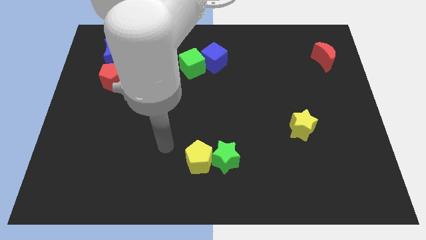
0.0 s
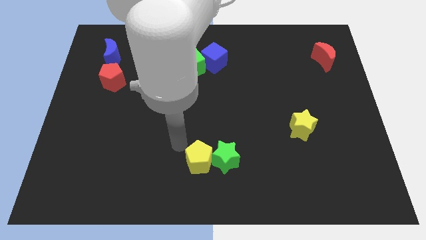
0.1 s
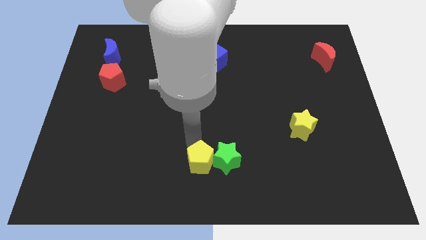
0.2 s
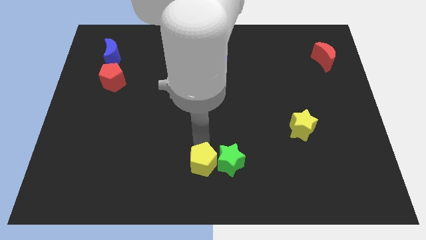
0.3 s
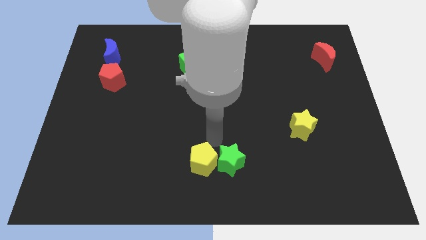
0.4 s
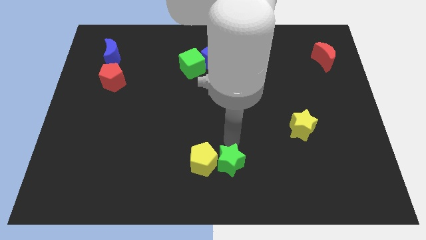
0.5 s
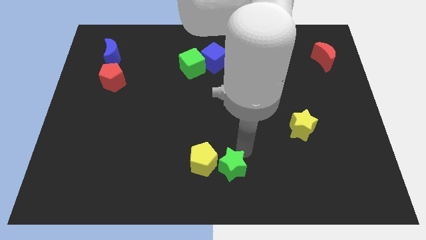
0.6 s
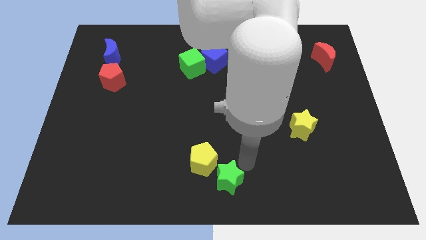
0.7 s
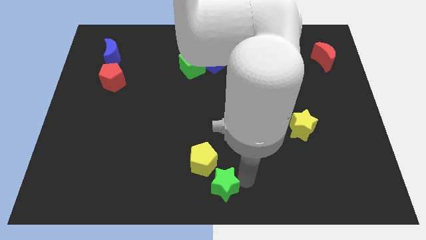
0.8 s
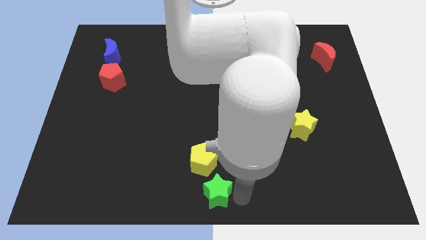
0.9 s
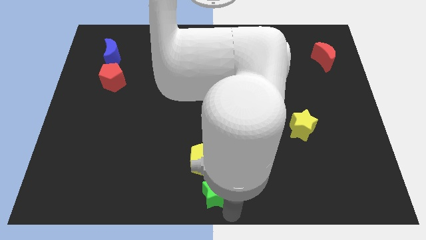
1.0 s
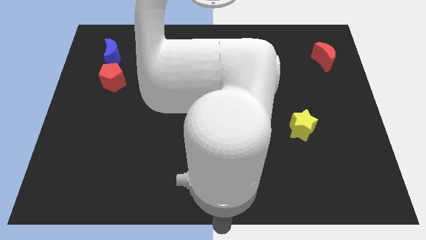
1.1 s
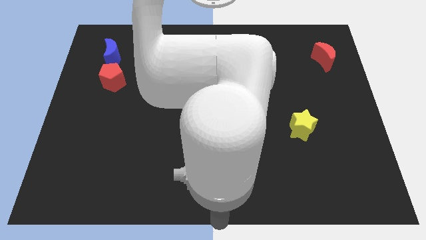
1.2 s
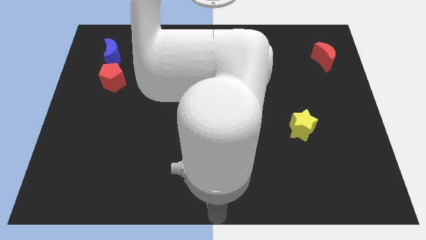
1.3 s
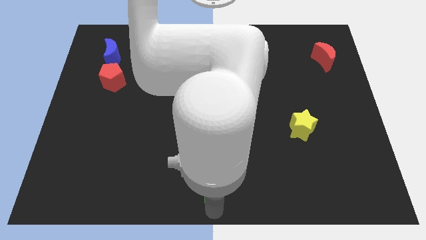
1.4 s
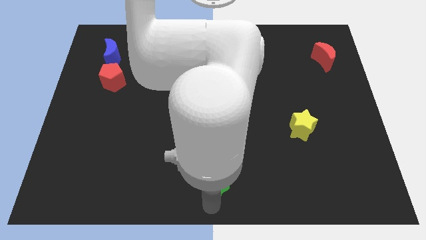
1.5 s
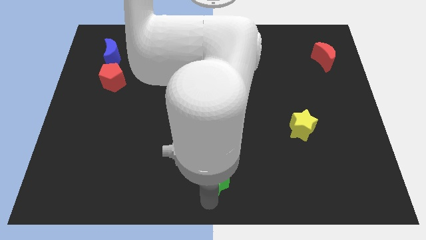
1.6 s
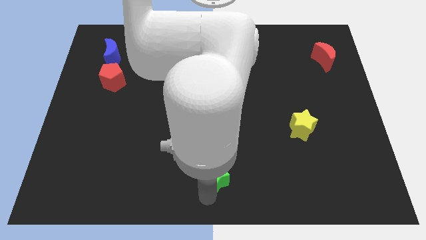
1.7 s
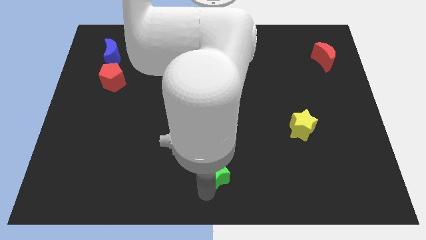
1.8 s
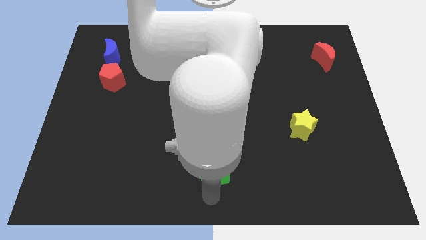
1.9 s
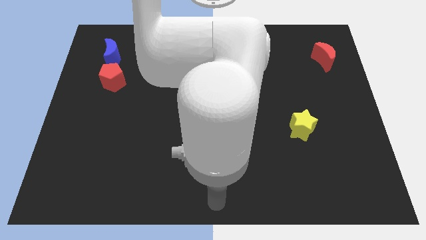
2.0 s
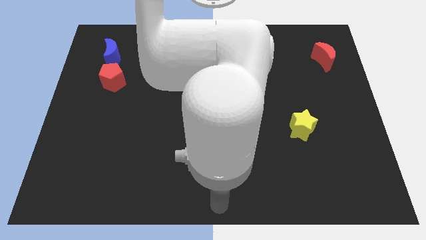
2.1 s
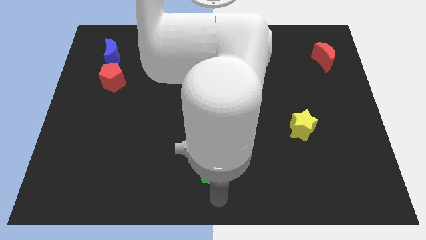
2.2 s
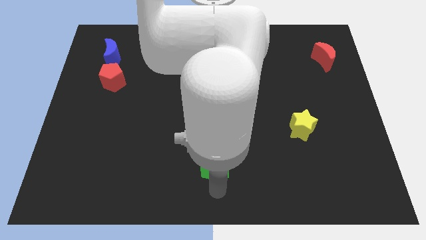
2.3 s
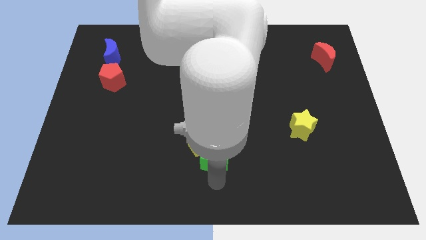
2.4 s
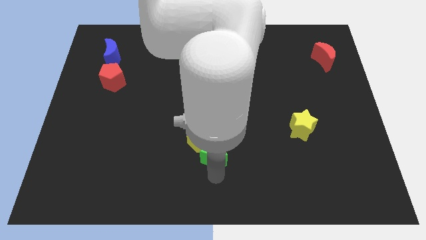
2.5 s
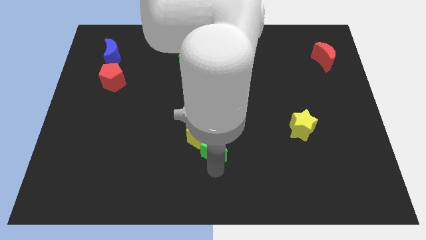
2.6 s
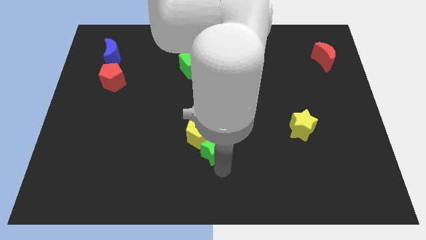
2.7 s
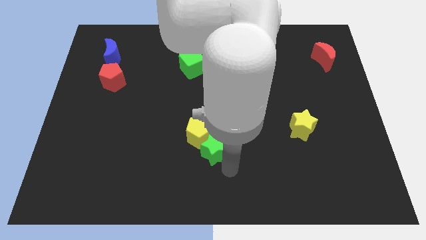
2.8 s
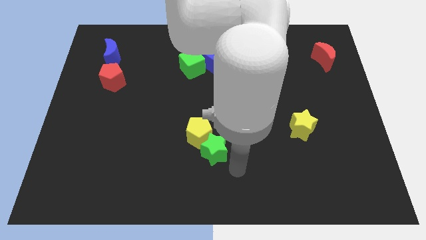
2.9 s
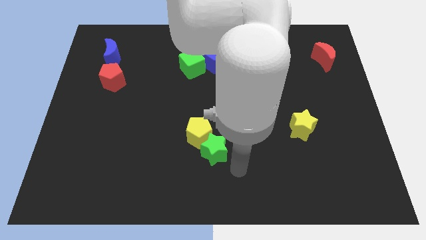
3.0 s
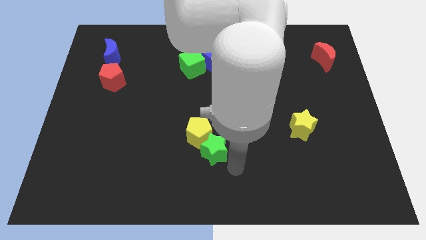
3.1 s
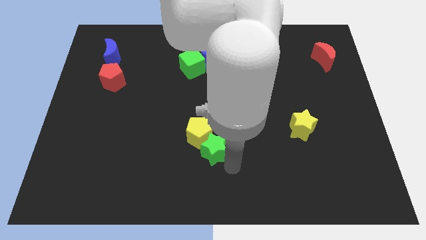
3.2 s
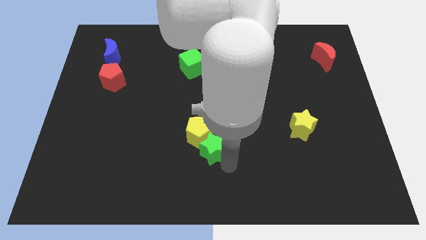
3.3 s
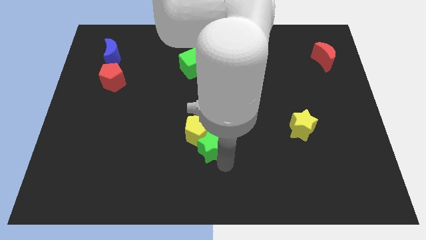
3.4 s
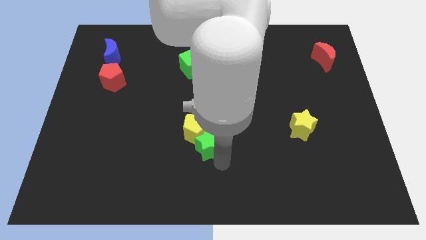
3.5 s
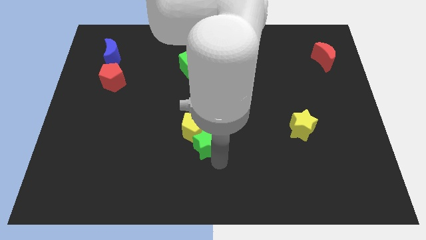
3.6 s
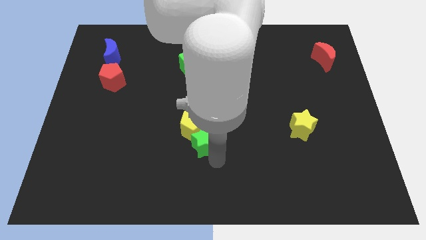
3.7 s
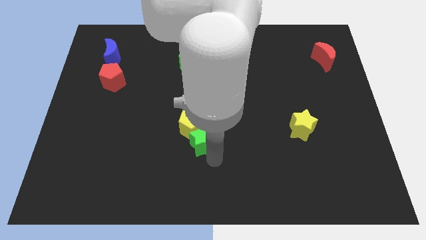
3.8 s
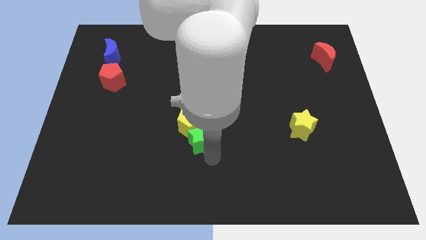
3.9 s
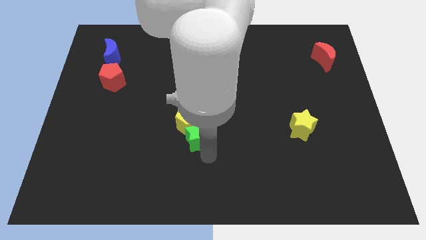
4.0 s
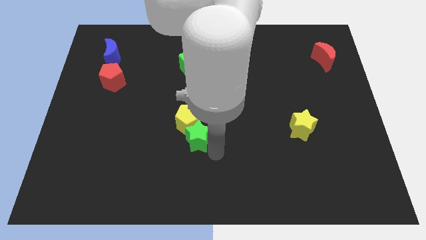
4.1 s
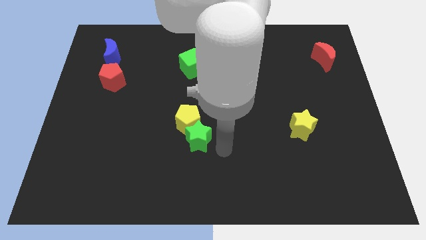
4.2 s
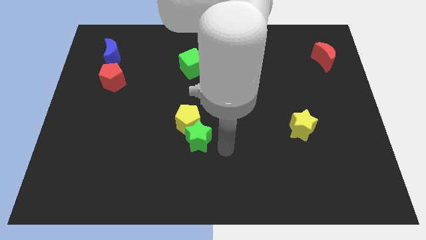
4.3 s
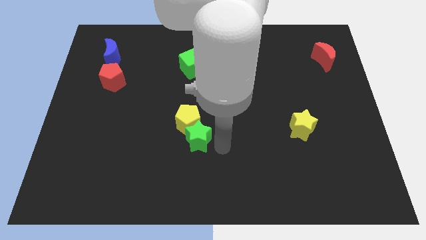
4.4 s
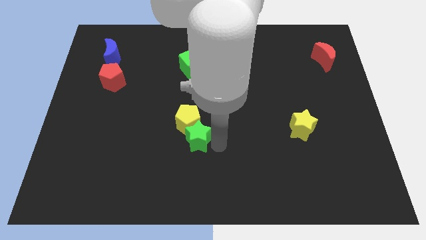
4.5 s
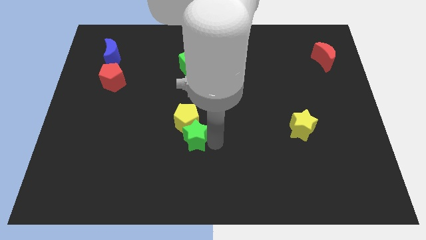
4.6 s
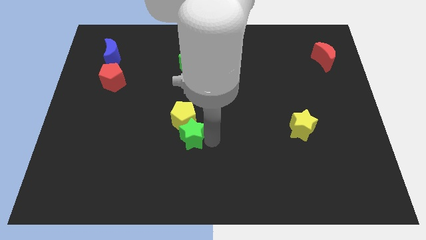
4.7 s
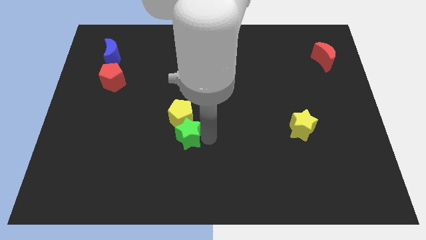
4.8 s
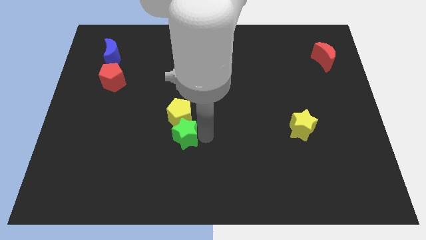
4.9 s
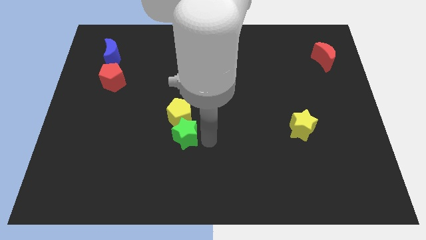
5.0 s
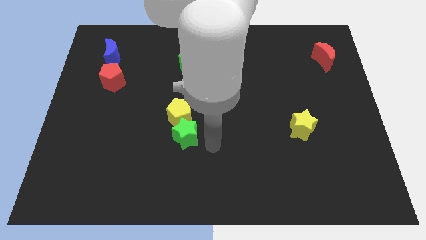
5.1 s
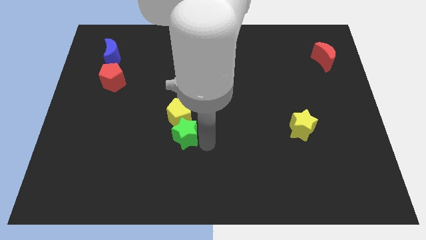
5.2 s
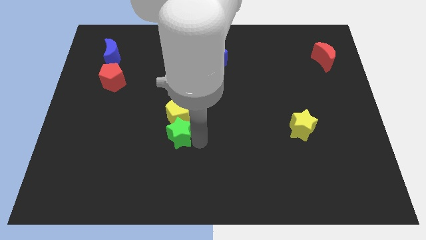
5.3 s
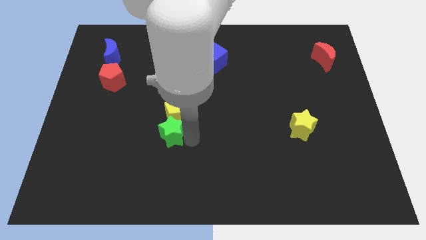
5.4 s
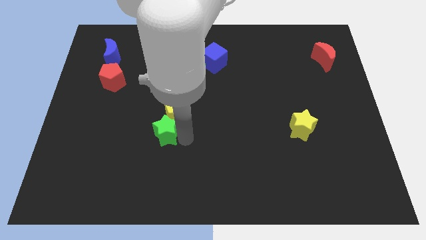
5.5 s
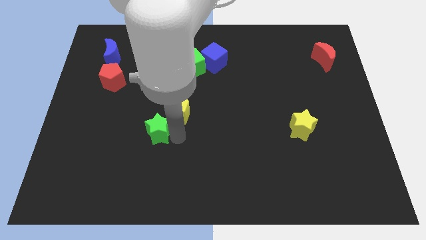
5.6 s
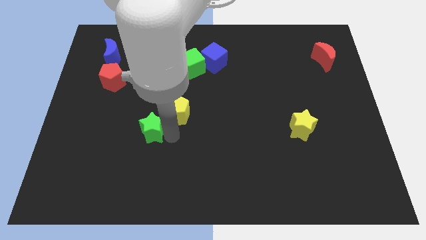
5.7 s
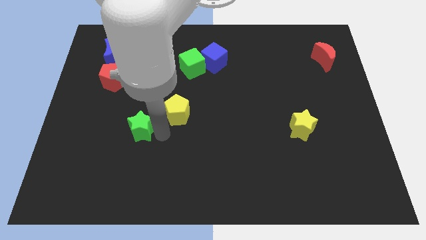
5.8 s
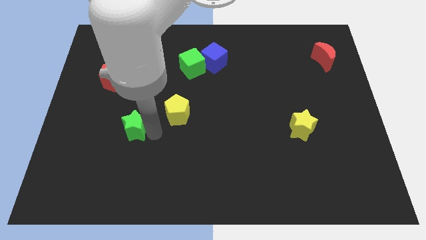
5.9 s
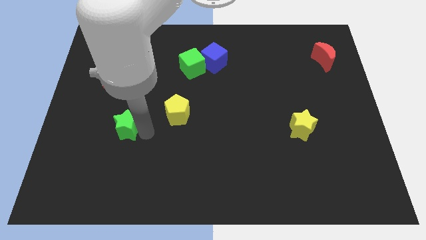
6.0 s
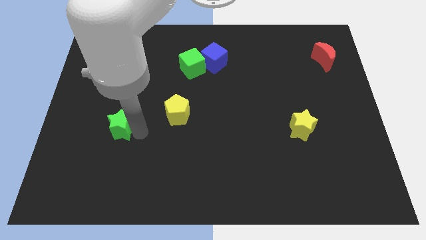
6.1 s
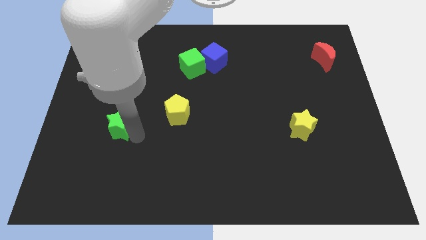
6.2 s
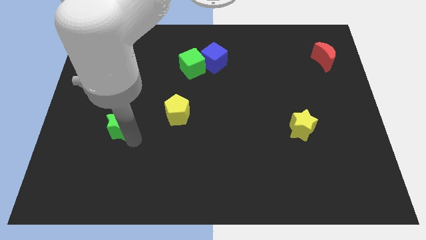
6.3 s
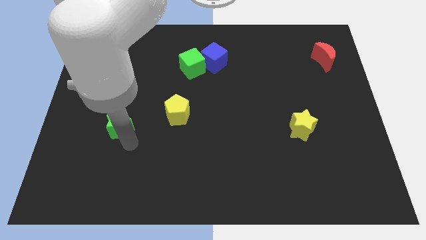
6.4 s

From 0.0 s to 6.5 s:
slide the green star below the red pentagon

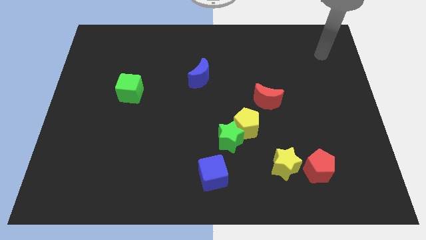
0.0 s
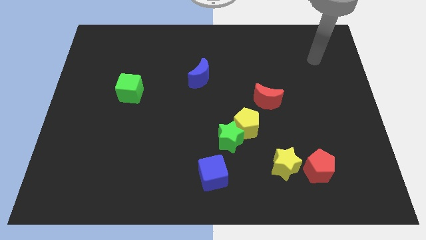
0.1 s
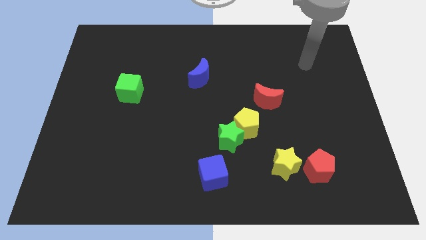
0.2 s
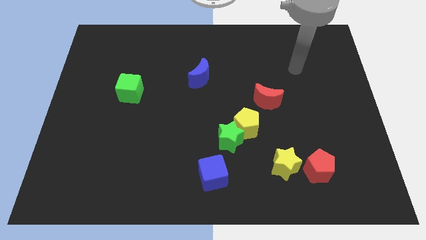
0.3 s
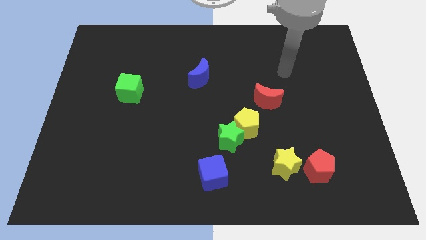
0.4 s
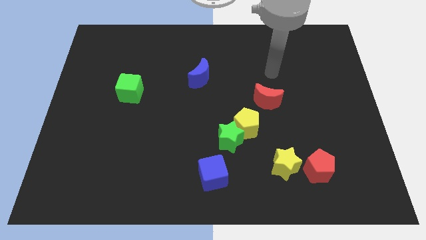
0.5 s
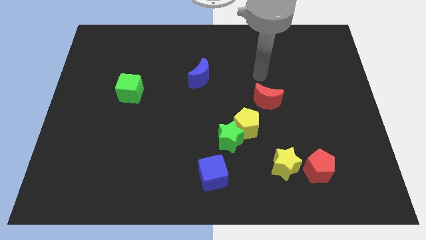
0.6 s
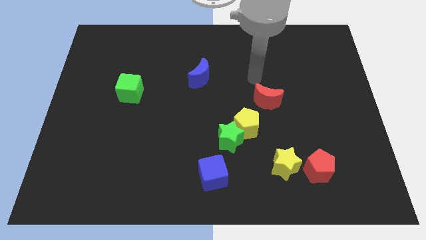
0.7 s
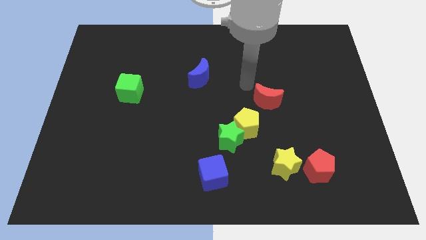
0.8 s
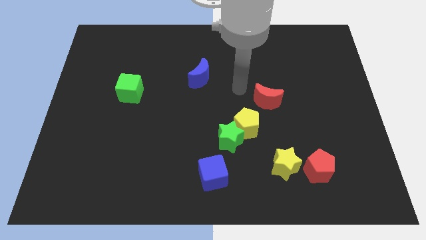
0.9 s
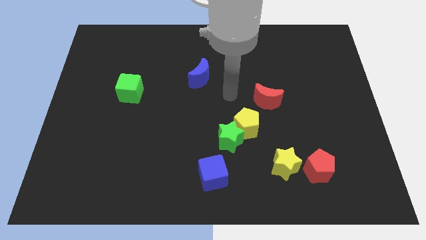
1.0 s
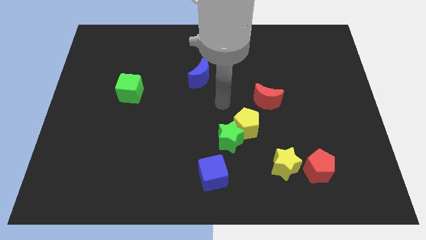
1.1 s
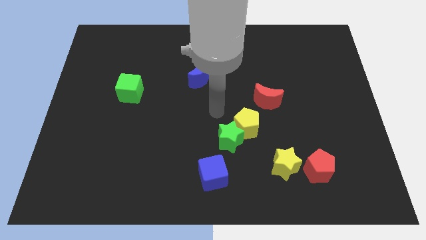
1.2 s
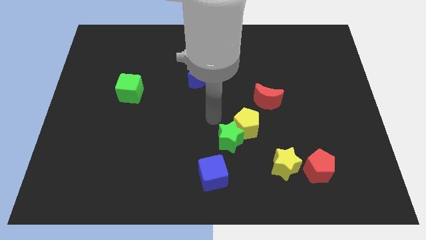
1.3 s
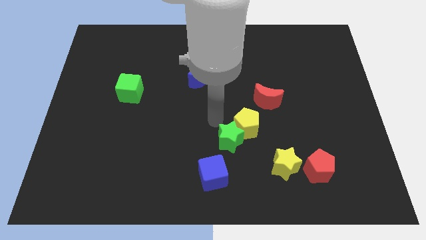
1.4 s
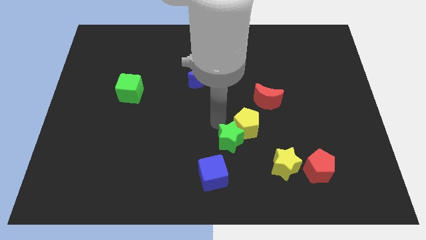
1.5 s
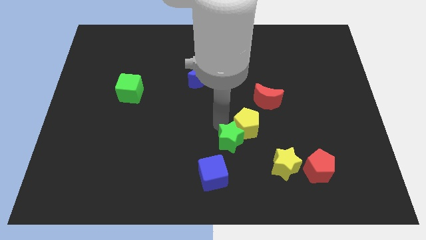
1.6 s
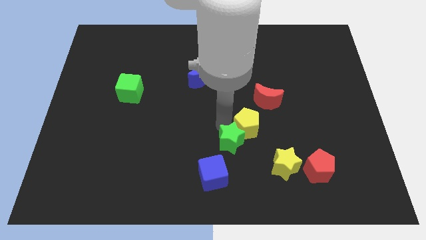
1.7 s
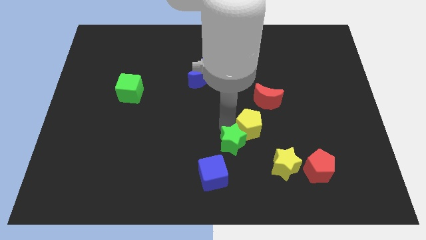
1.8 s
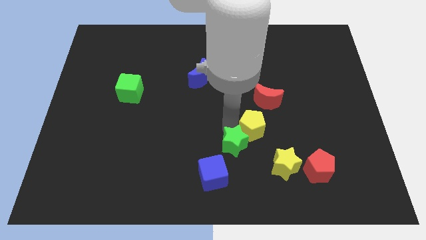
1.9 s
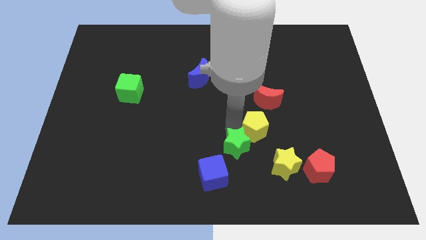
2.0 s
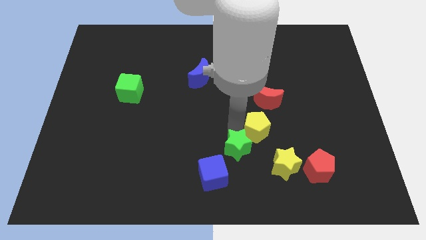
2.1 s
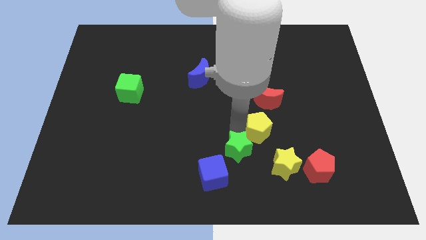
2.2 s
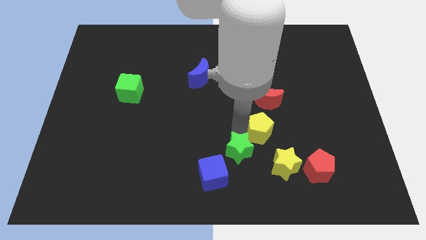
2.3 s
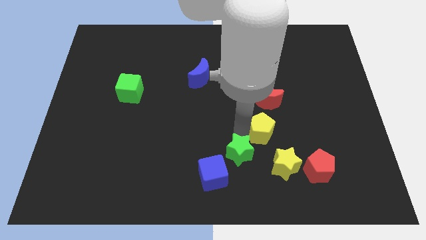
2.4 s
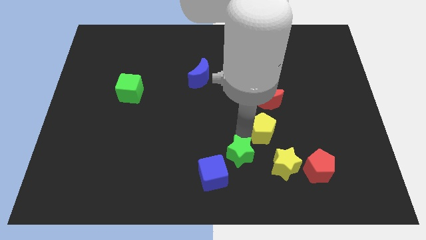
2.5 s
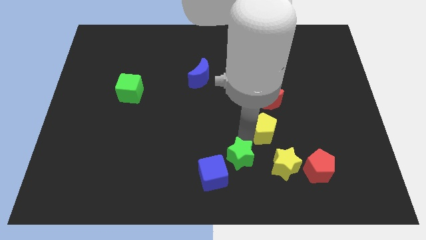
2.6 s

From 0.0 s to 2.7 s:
put the green star to the right side of the blue cube
